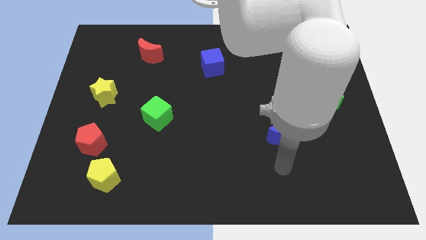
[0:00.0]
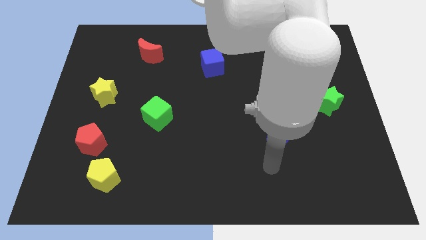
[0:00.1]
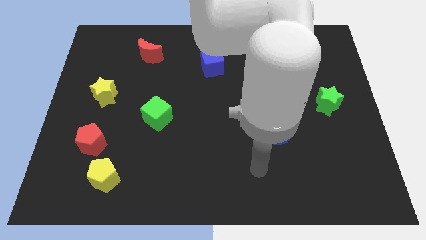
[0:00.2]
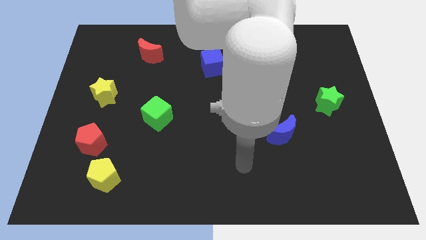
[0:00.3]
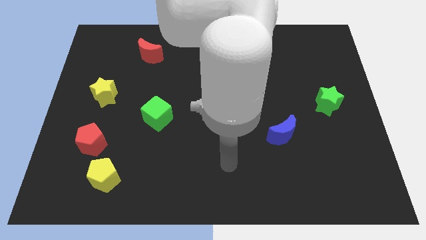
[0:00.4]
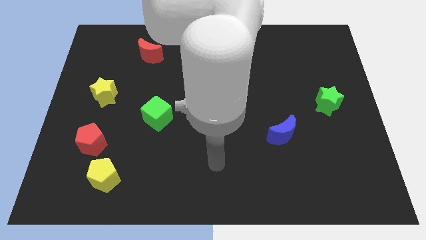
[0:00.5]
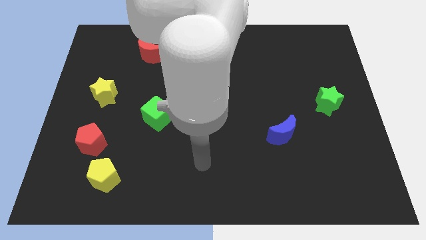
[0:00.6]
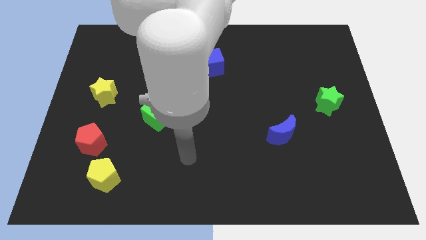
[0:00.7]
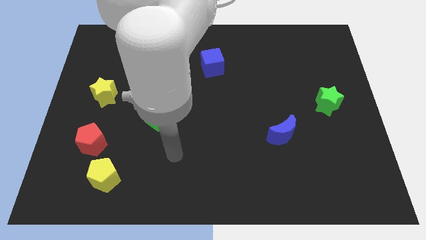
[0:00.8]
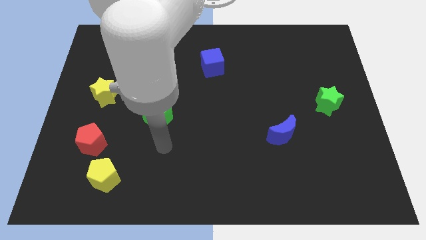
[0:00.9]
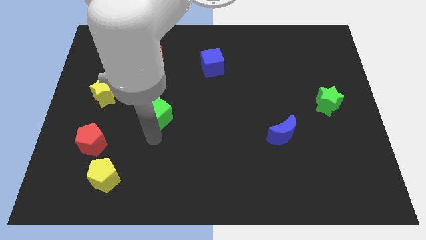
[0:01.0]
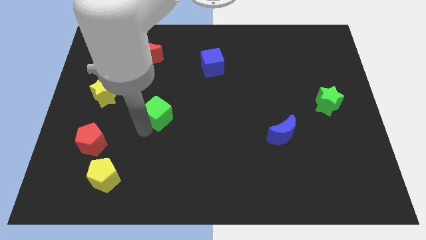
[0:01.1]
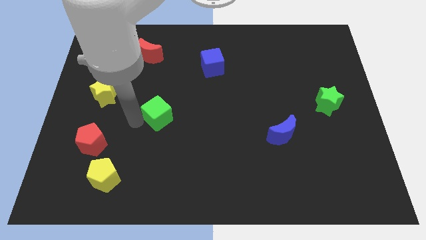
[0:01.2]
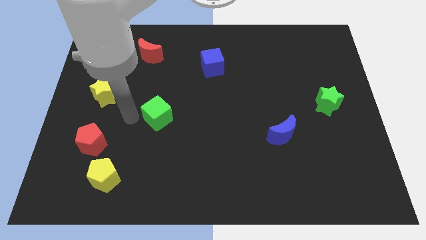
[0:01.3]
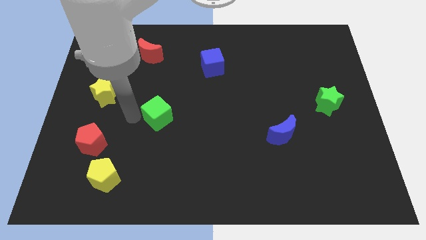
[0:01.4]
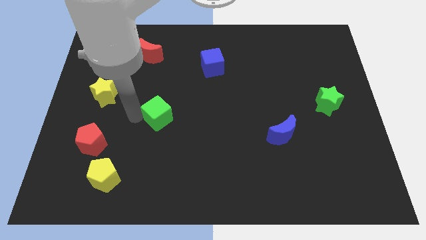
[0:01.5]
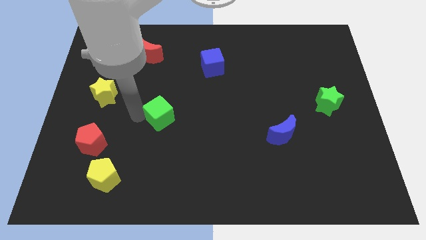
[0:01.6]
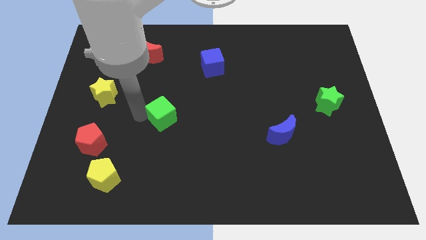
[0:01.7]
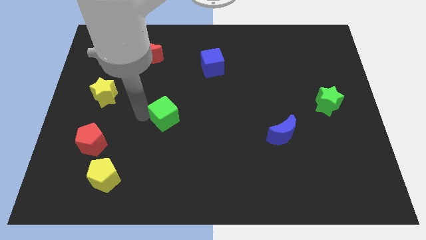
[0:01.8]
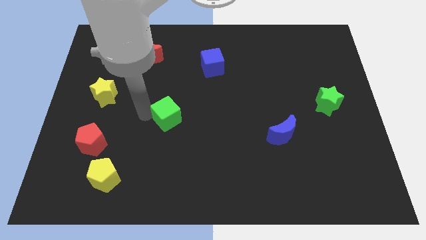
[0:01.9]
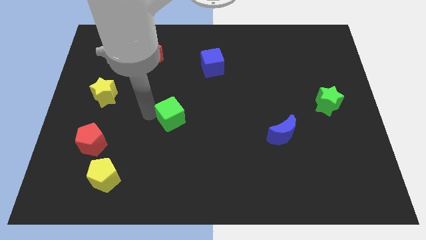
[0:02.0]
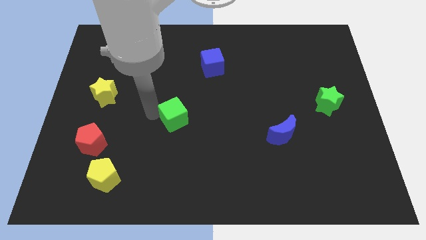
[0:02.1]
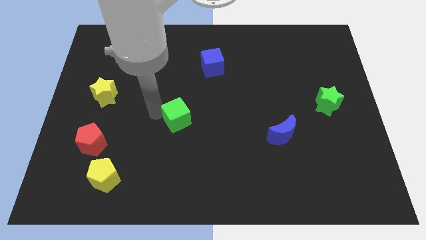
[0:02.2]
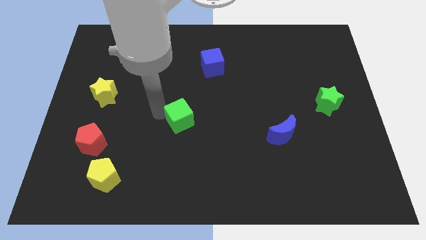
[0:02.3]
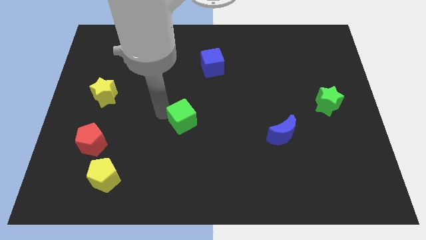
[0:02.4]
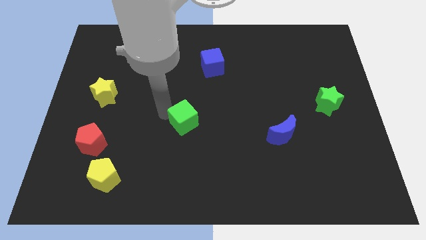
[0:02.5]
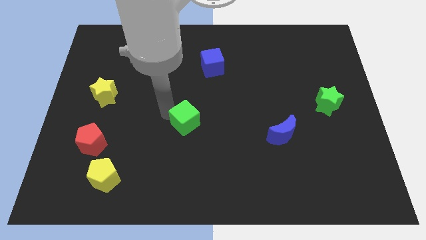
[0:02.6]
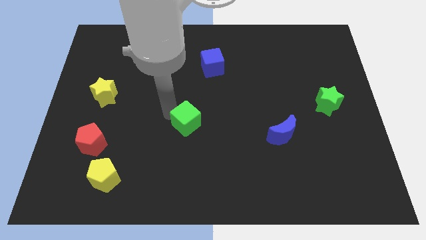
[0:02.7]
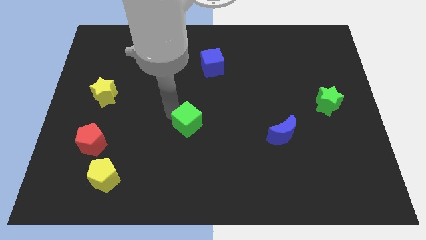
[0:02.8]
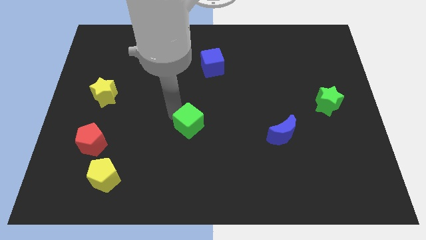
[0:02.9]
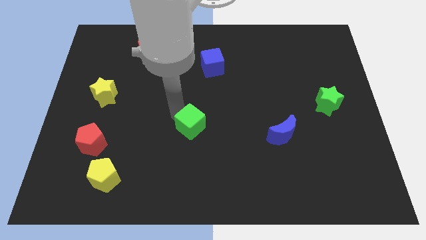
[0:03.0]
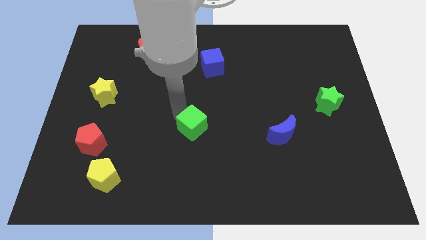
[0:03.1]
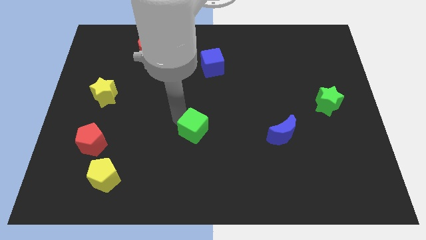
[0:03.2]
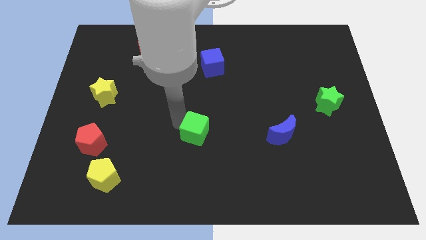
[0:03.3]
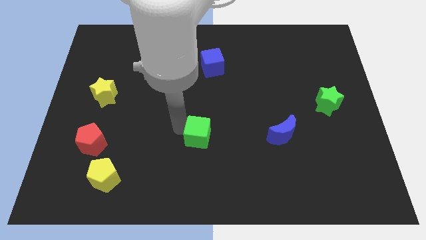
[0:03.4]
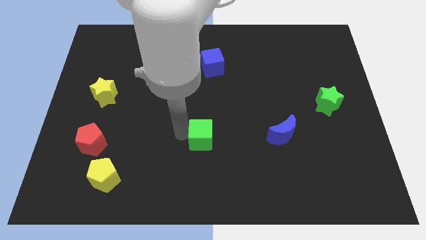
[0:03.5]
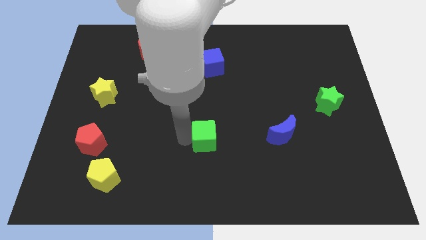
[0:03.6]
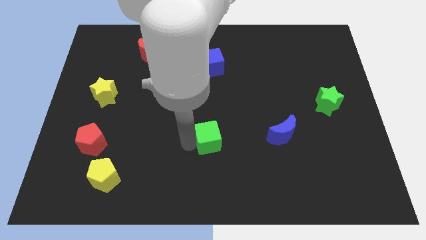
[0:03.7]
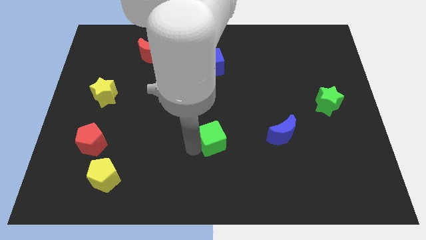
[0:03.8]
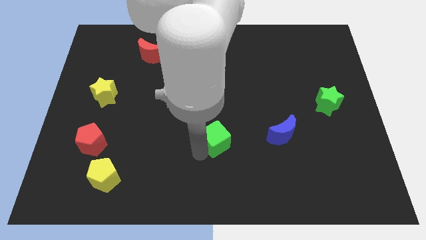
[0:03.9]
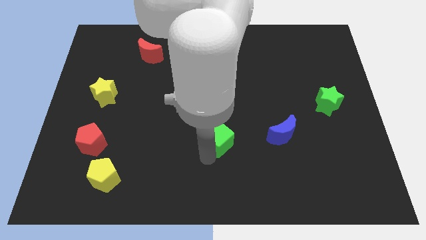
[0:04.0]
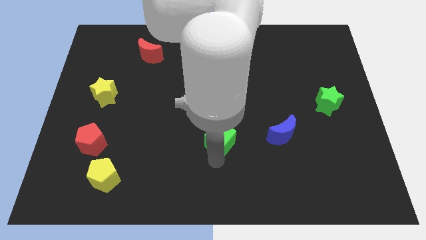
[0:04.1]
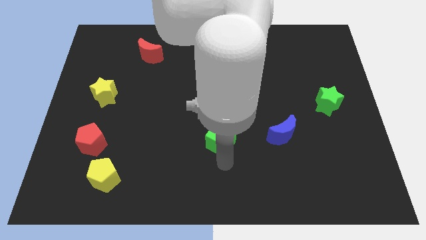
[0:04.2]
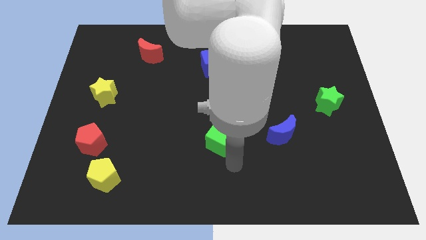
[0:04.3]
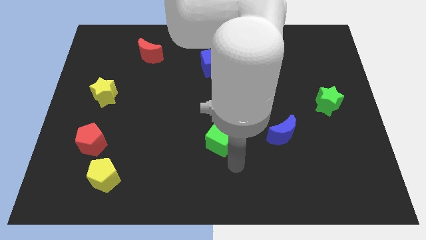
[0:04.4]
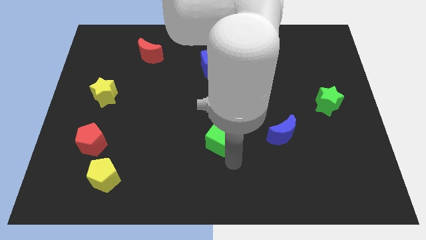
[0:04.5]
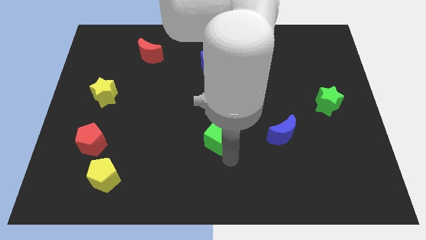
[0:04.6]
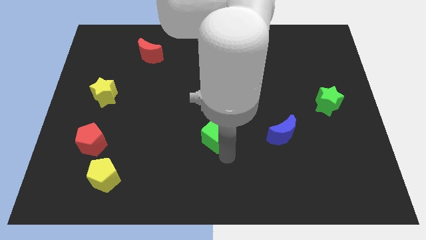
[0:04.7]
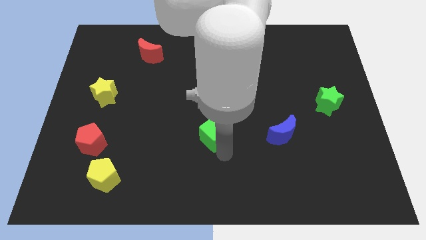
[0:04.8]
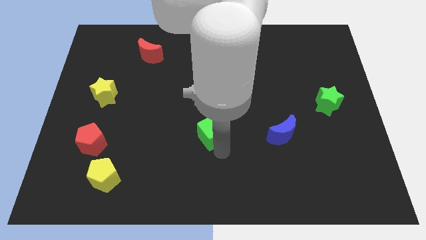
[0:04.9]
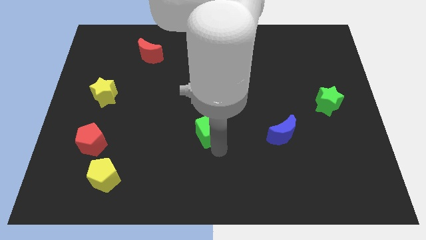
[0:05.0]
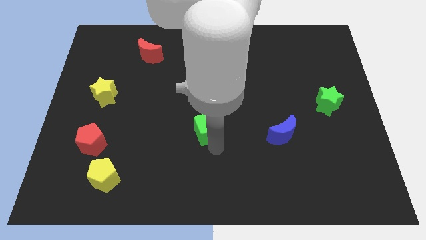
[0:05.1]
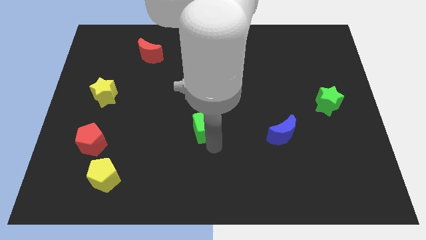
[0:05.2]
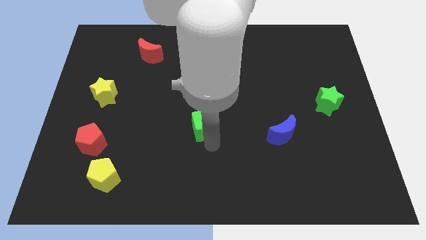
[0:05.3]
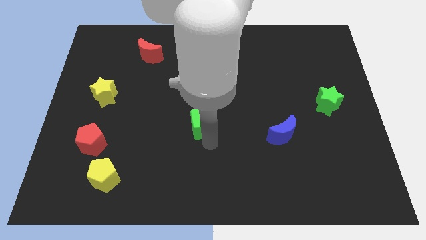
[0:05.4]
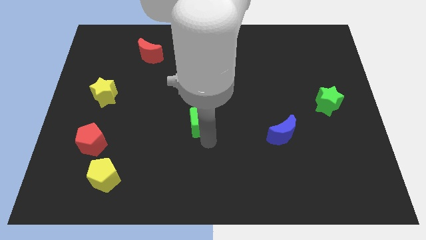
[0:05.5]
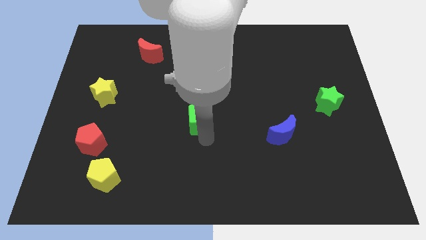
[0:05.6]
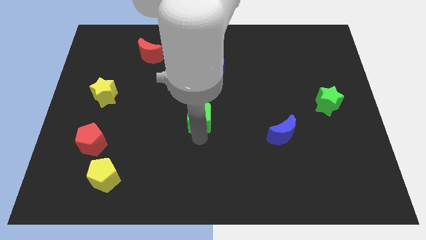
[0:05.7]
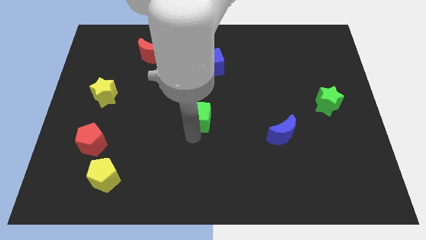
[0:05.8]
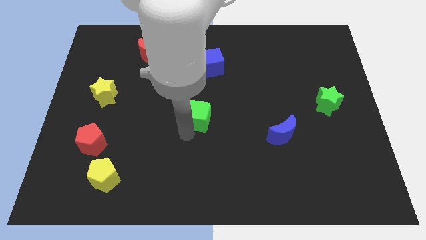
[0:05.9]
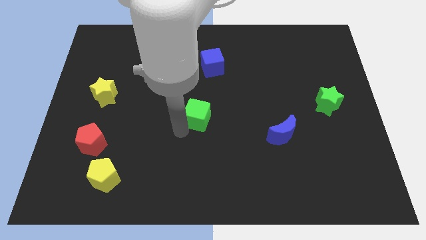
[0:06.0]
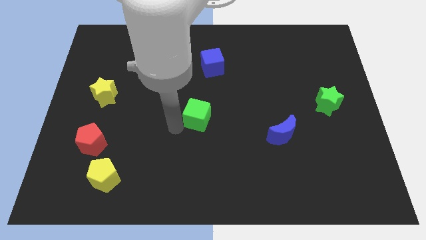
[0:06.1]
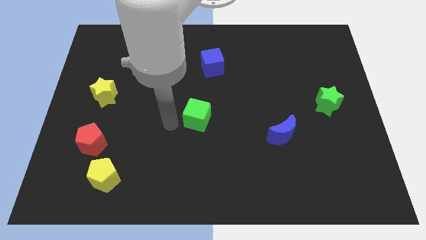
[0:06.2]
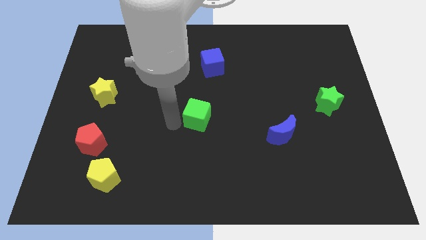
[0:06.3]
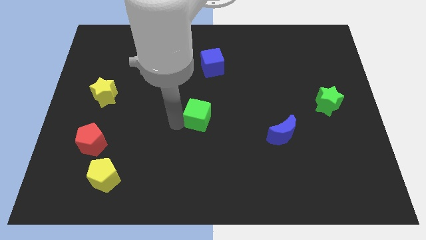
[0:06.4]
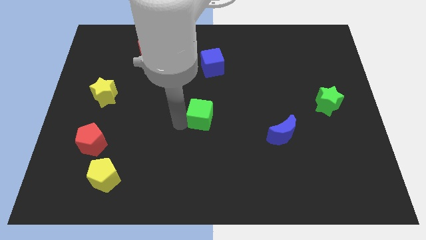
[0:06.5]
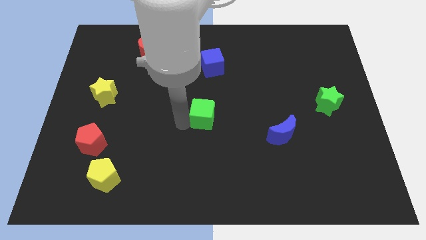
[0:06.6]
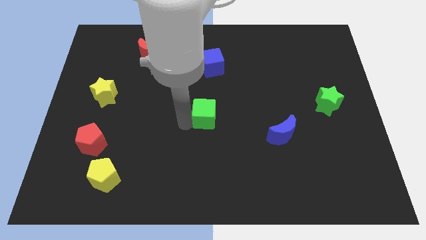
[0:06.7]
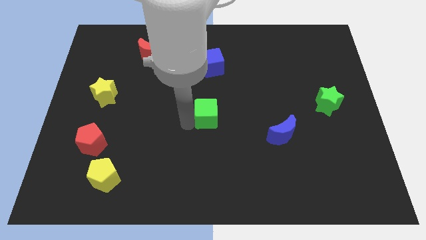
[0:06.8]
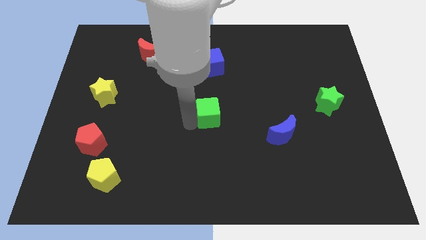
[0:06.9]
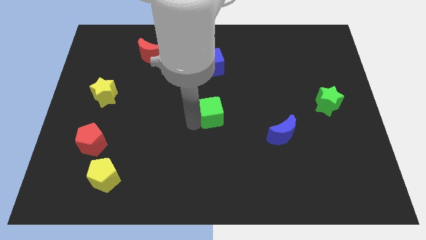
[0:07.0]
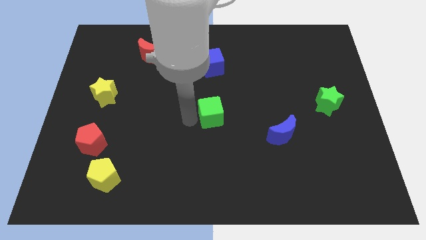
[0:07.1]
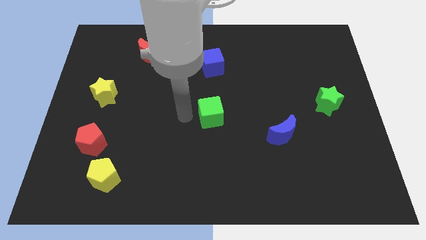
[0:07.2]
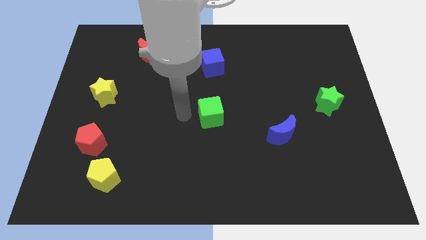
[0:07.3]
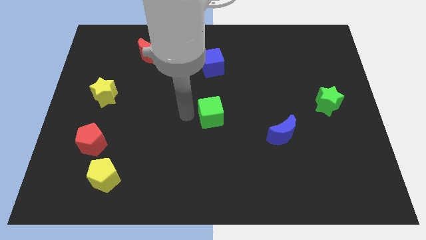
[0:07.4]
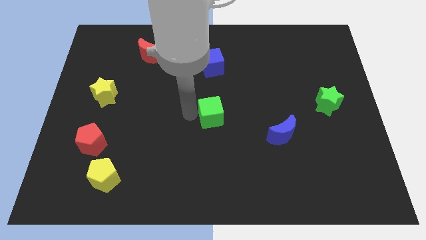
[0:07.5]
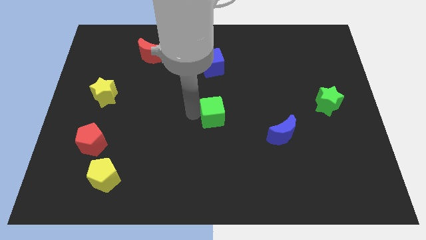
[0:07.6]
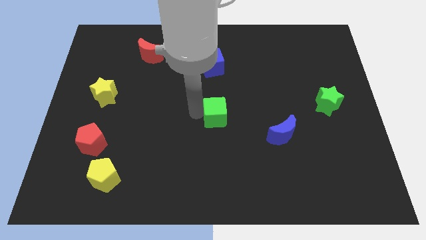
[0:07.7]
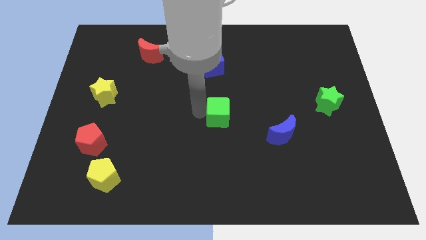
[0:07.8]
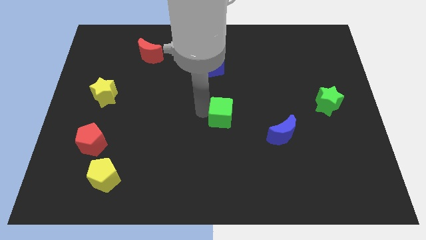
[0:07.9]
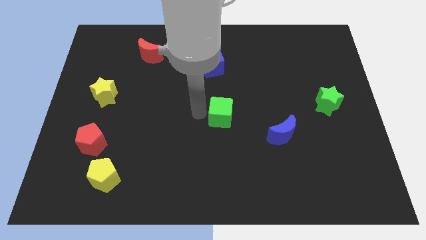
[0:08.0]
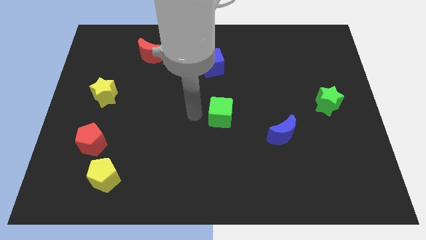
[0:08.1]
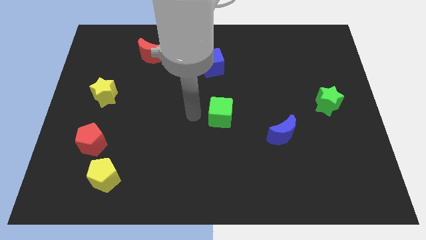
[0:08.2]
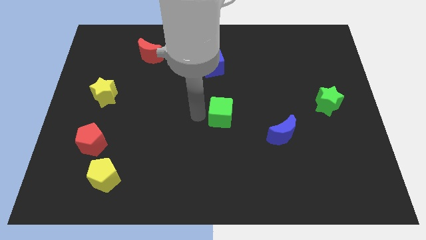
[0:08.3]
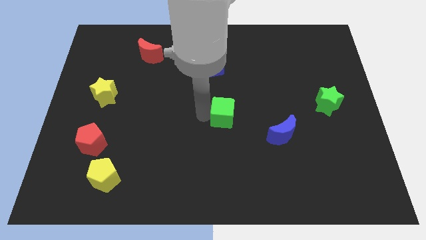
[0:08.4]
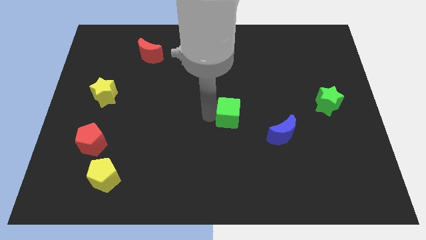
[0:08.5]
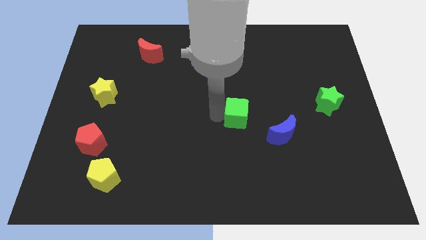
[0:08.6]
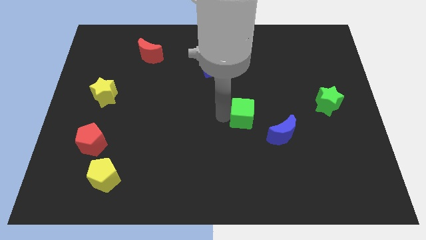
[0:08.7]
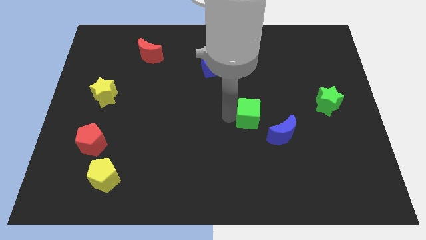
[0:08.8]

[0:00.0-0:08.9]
slide the green cube right
